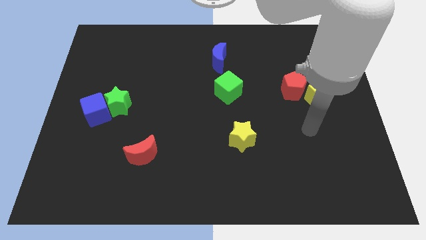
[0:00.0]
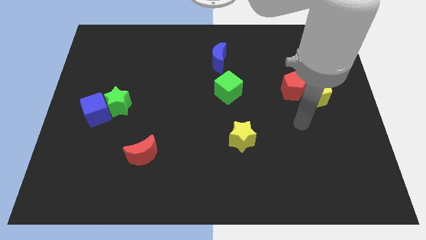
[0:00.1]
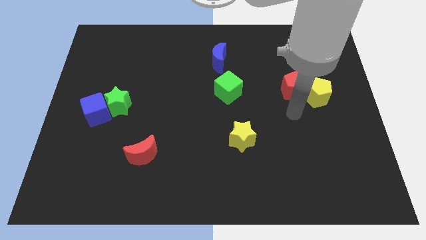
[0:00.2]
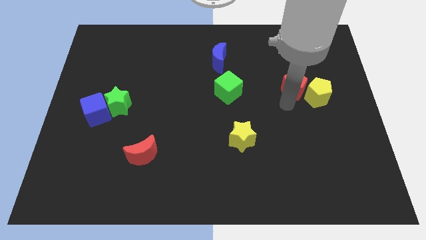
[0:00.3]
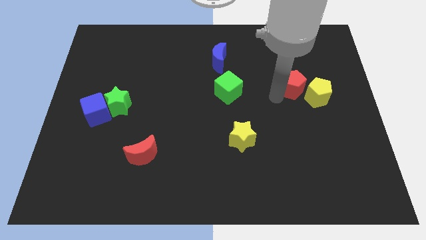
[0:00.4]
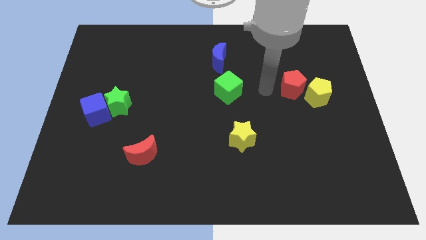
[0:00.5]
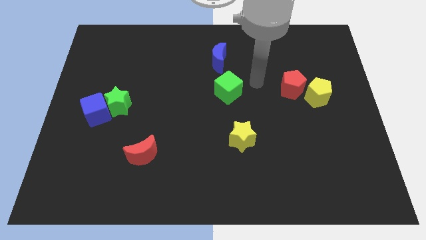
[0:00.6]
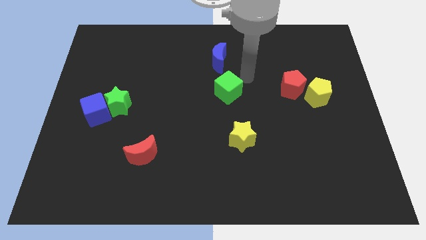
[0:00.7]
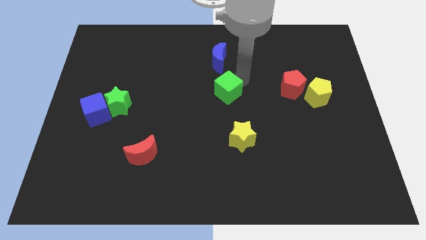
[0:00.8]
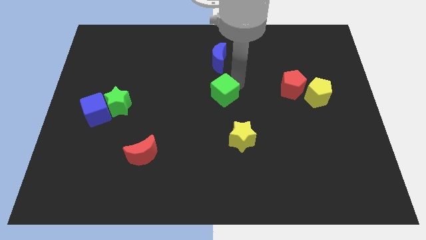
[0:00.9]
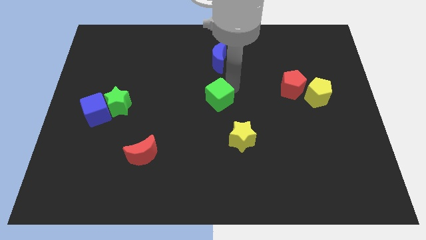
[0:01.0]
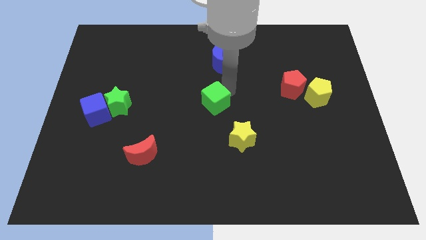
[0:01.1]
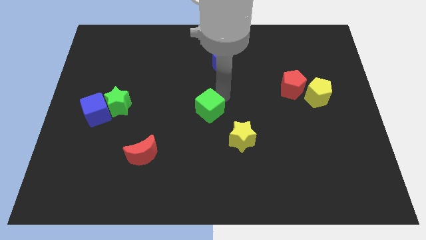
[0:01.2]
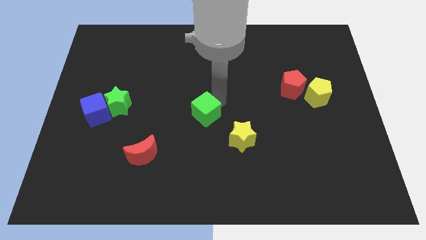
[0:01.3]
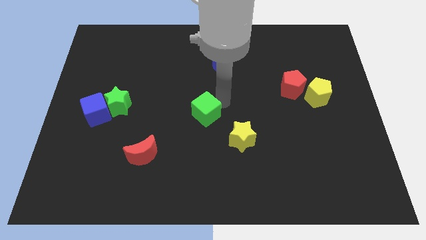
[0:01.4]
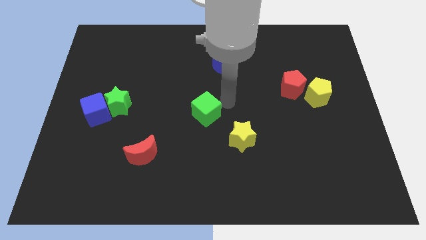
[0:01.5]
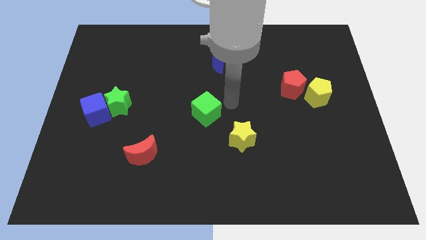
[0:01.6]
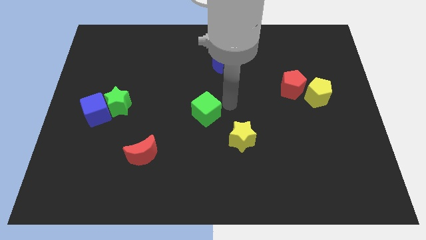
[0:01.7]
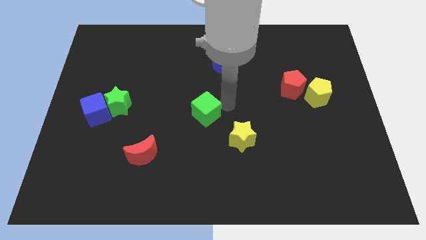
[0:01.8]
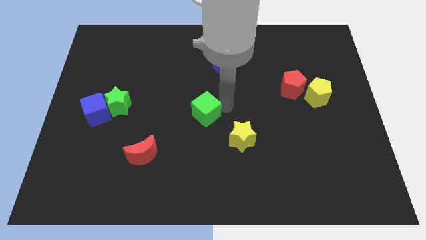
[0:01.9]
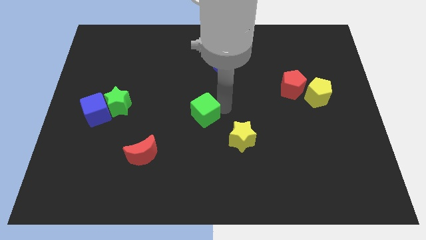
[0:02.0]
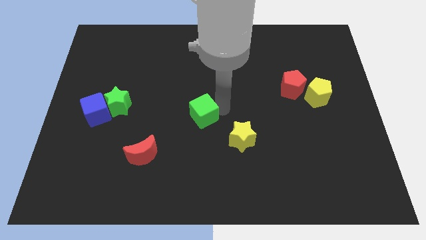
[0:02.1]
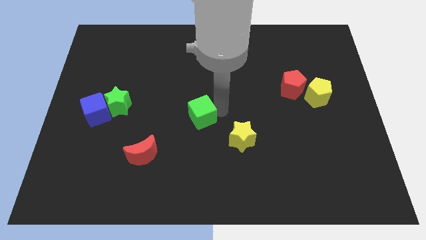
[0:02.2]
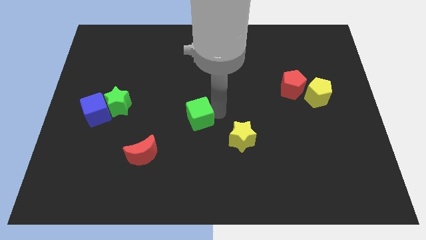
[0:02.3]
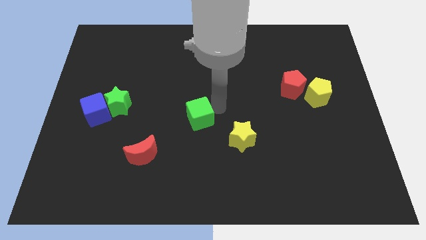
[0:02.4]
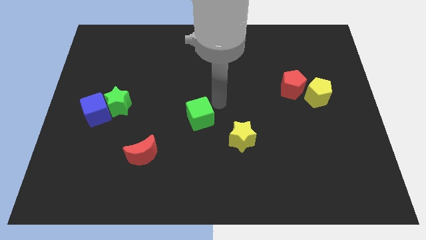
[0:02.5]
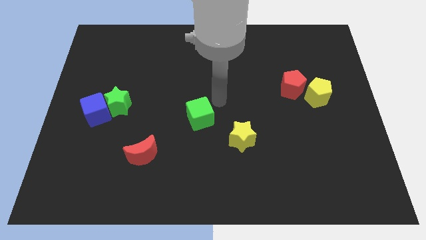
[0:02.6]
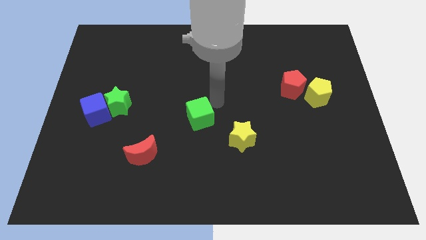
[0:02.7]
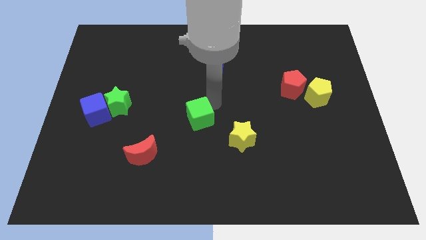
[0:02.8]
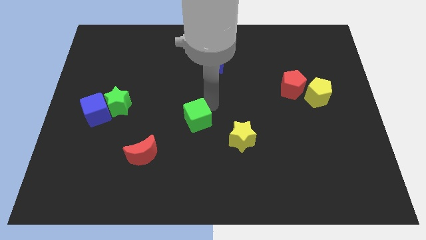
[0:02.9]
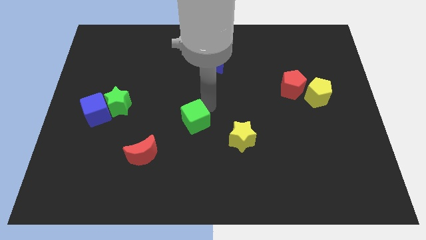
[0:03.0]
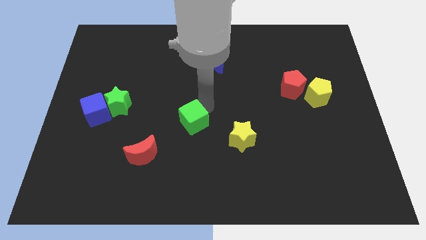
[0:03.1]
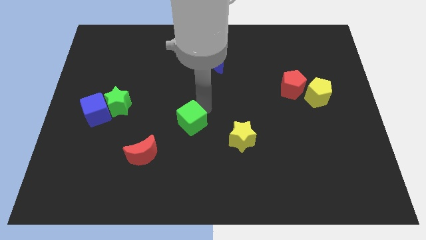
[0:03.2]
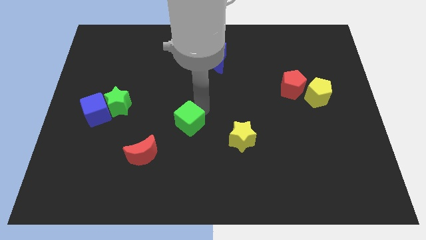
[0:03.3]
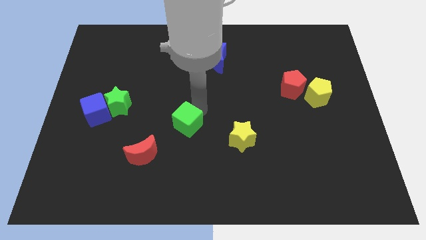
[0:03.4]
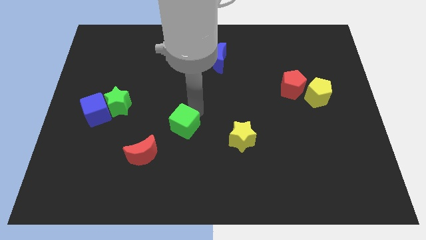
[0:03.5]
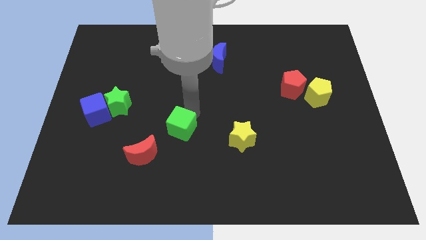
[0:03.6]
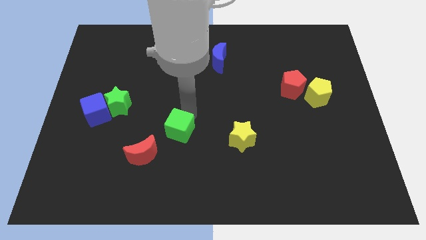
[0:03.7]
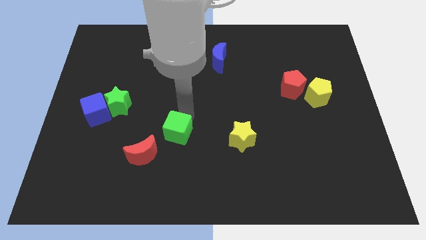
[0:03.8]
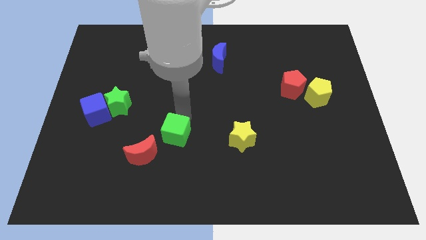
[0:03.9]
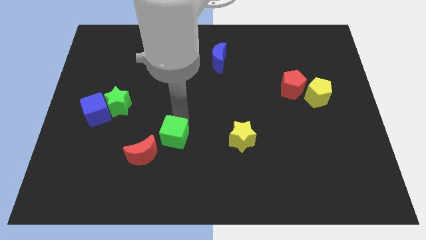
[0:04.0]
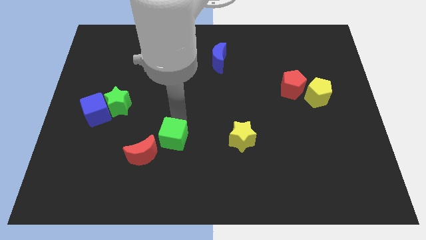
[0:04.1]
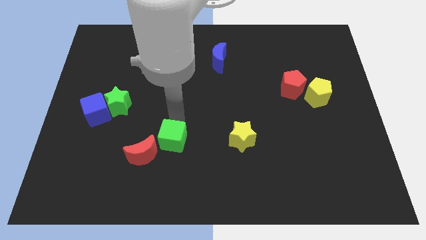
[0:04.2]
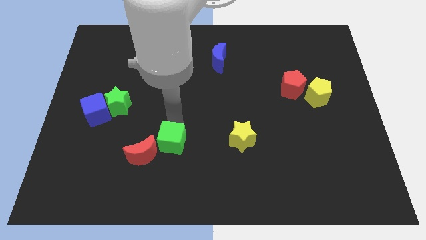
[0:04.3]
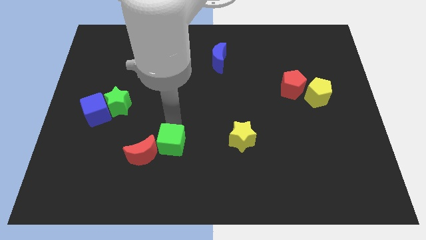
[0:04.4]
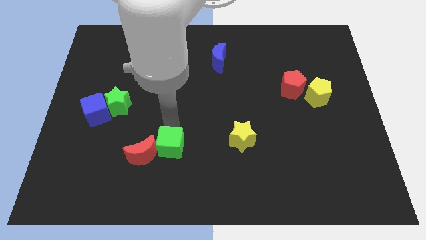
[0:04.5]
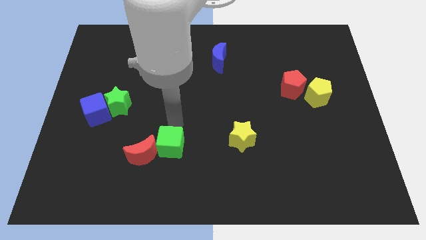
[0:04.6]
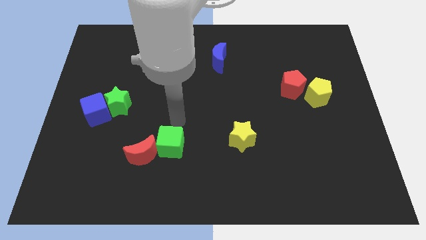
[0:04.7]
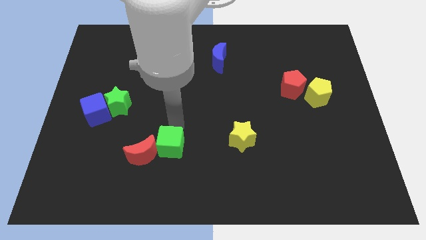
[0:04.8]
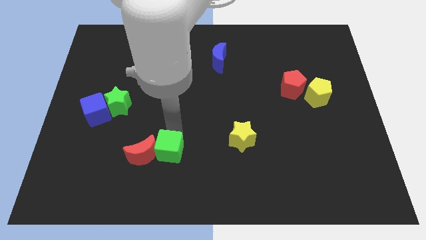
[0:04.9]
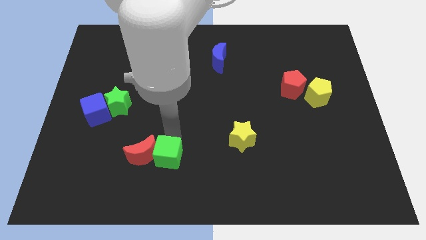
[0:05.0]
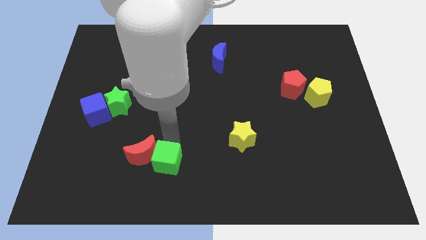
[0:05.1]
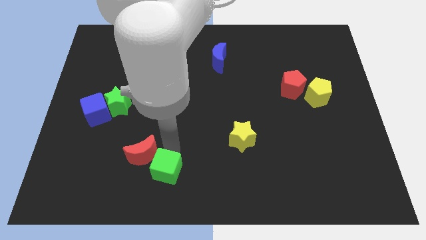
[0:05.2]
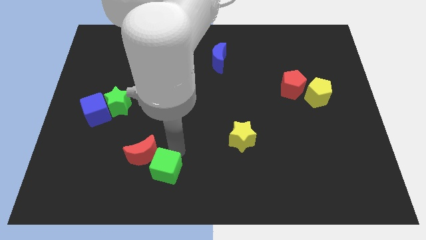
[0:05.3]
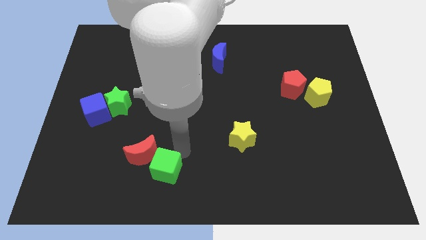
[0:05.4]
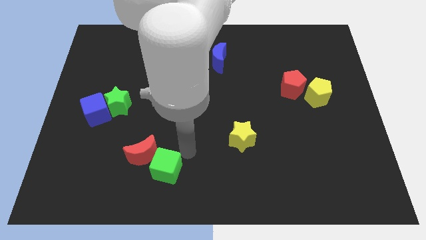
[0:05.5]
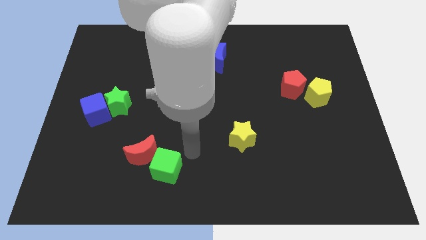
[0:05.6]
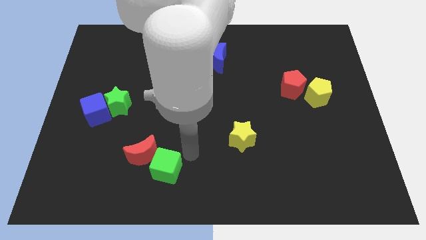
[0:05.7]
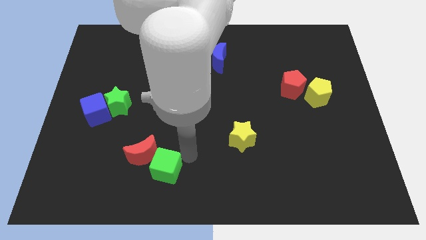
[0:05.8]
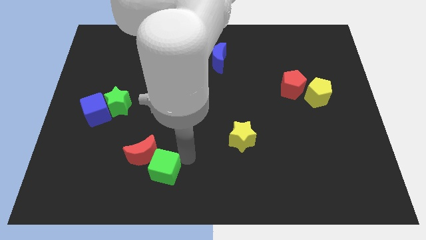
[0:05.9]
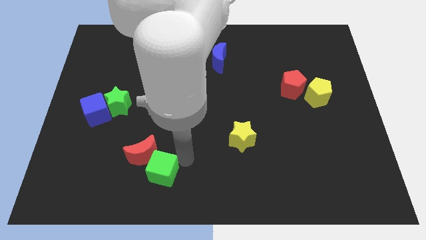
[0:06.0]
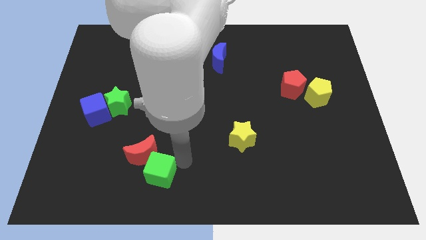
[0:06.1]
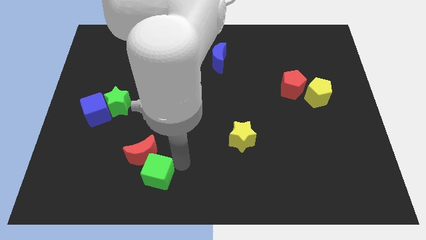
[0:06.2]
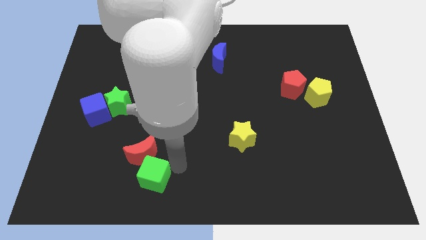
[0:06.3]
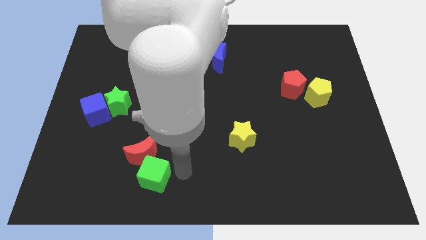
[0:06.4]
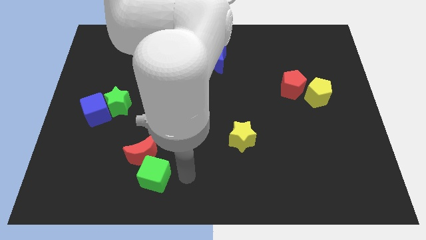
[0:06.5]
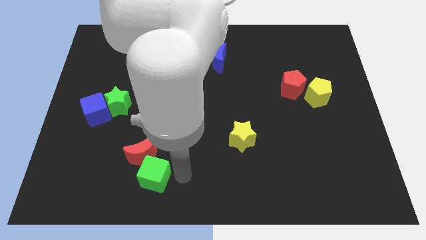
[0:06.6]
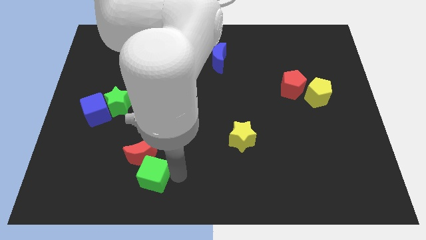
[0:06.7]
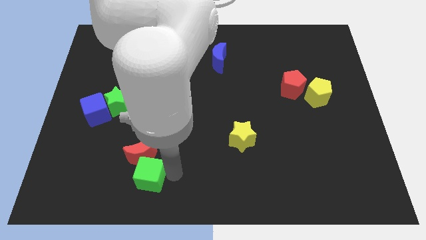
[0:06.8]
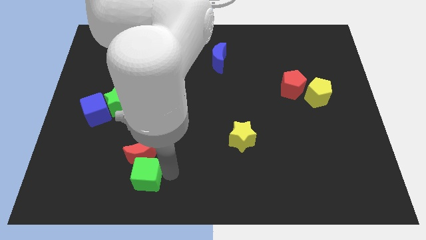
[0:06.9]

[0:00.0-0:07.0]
move the green cube to the bottom left of the red moon
